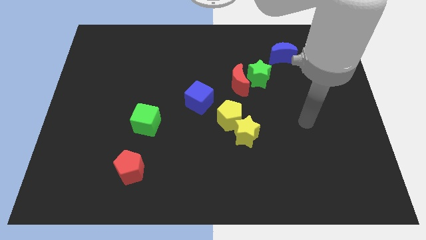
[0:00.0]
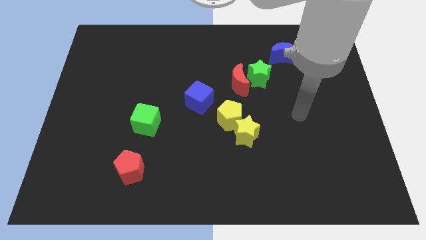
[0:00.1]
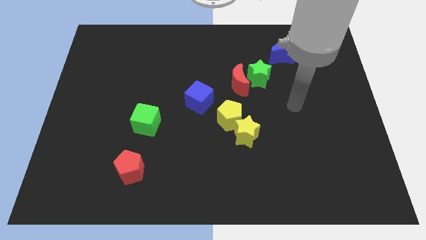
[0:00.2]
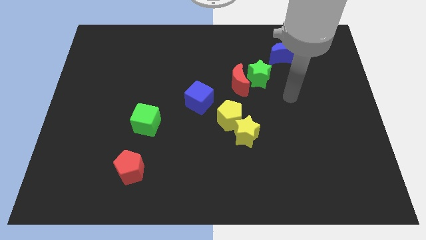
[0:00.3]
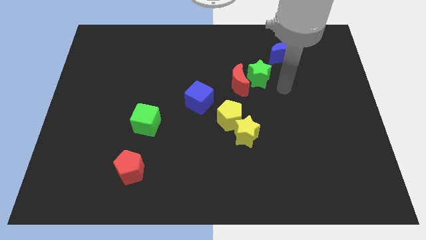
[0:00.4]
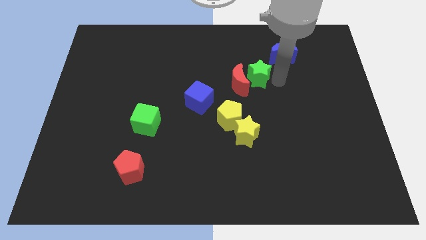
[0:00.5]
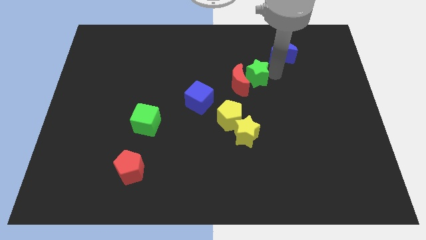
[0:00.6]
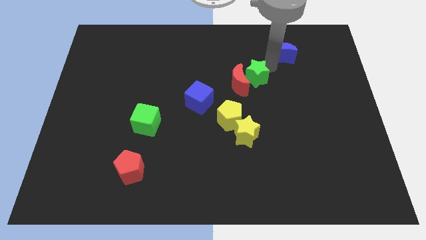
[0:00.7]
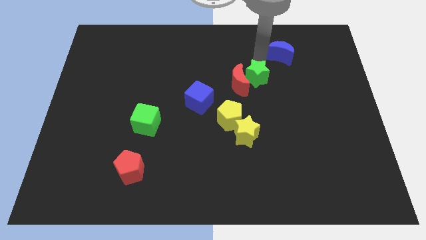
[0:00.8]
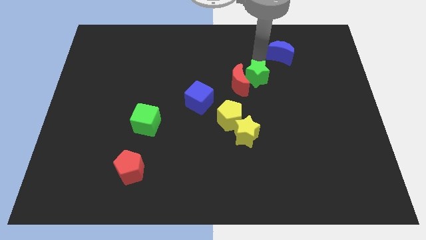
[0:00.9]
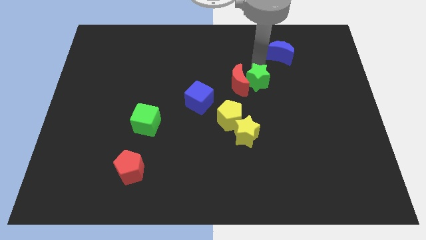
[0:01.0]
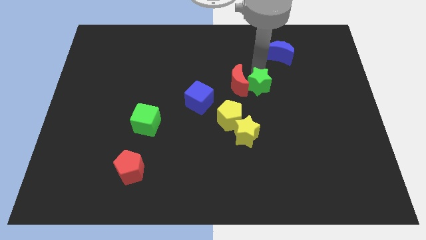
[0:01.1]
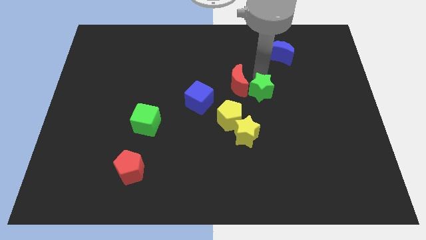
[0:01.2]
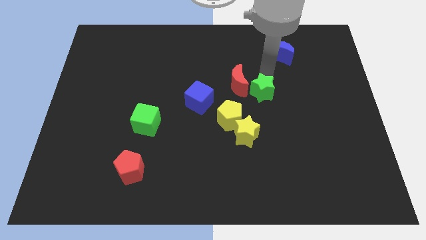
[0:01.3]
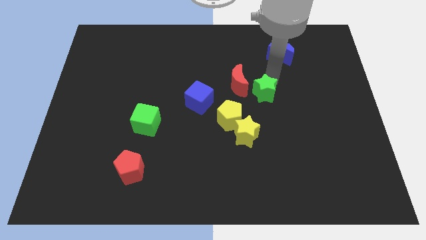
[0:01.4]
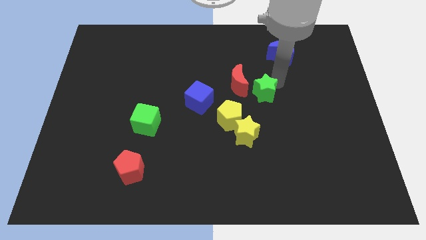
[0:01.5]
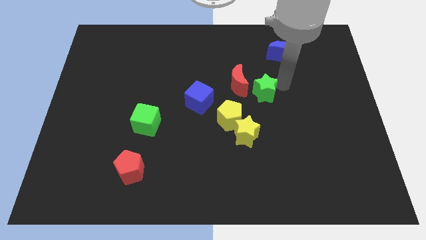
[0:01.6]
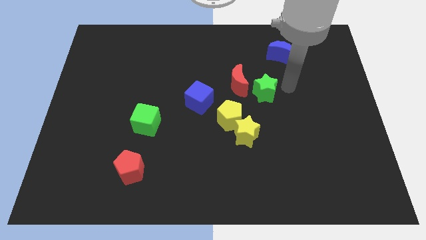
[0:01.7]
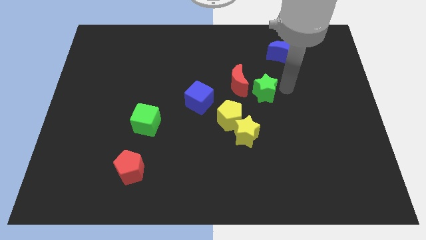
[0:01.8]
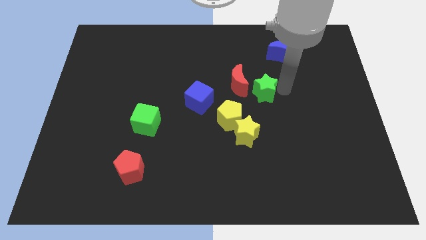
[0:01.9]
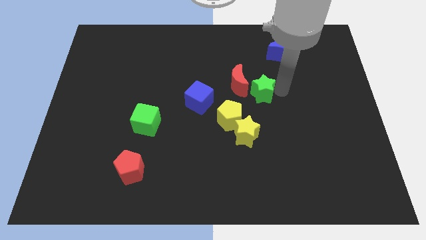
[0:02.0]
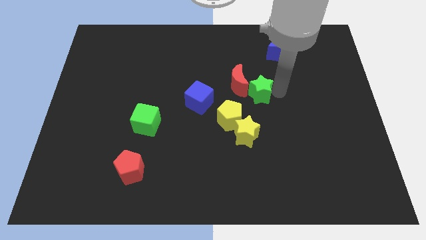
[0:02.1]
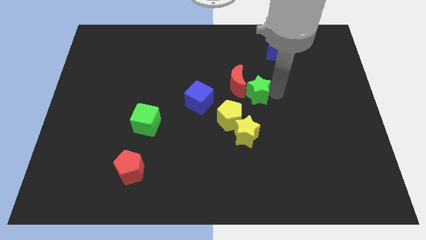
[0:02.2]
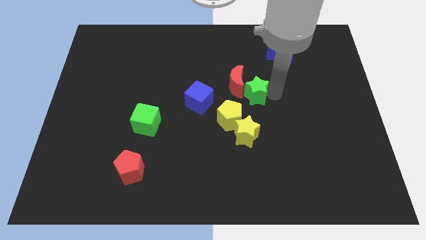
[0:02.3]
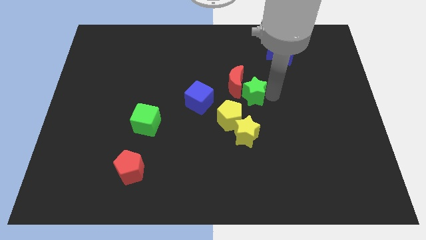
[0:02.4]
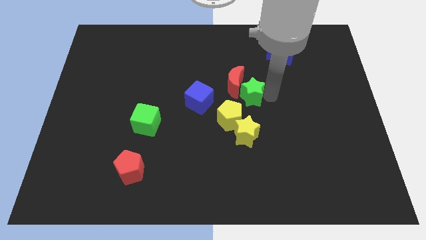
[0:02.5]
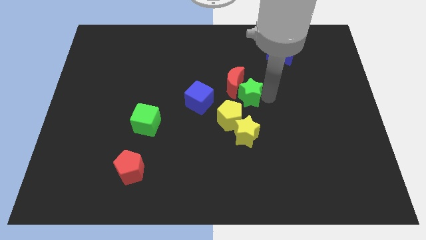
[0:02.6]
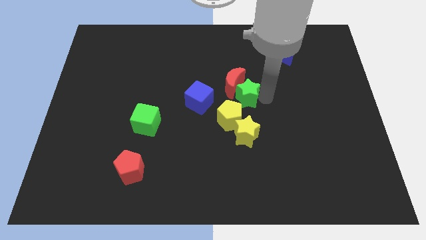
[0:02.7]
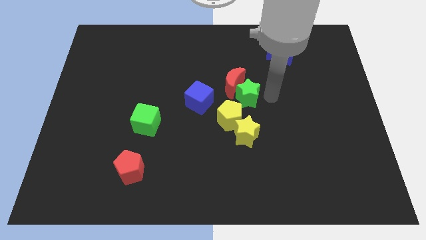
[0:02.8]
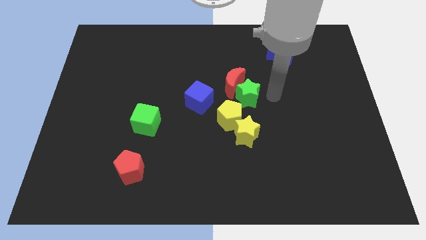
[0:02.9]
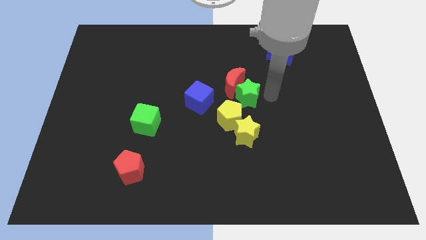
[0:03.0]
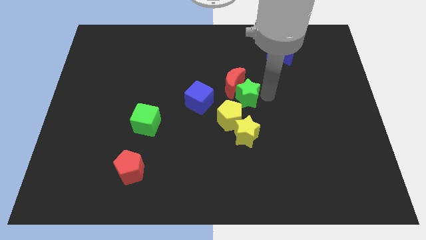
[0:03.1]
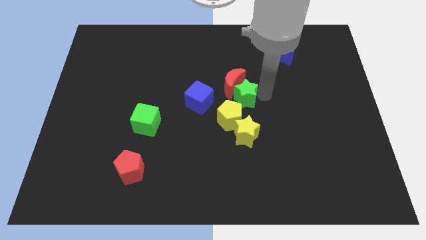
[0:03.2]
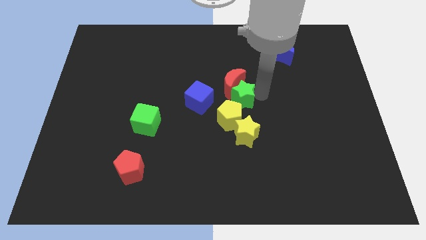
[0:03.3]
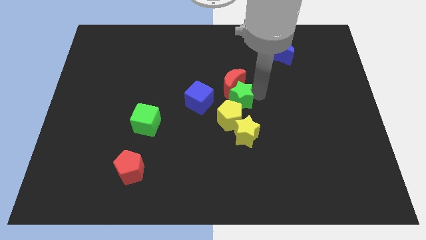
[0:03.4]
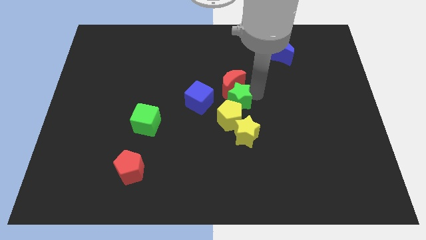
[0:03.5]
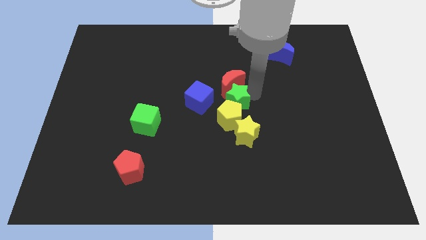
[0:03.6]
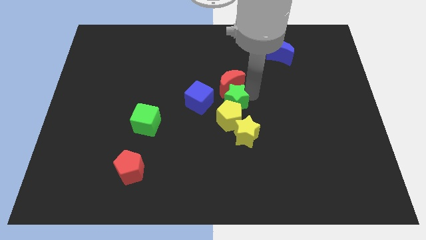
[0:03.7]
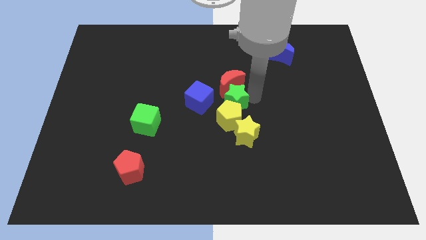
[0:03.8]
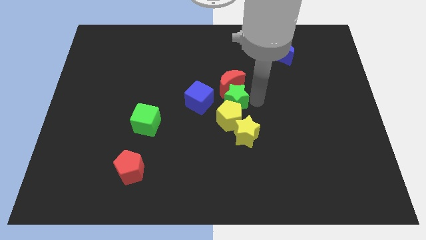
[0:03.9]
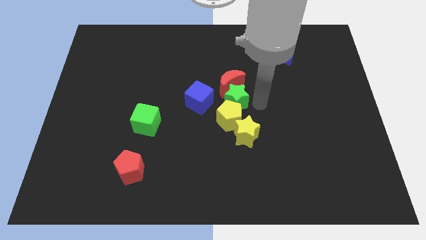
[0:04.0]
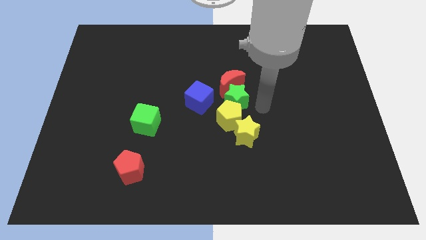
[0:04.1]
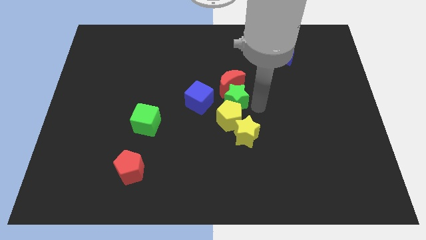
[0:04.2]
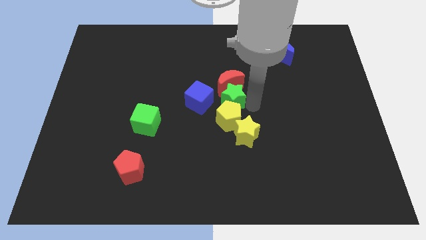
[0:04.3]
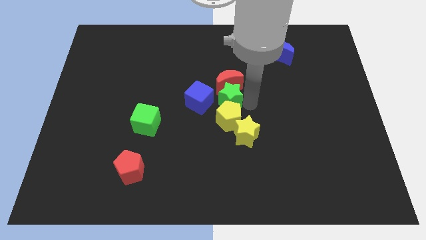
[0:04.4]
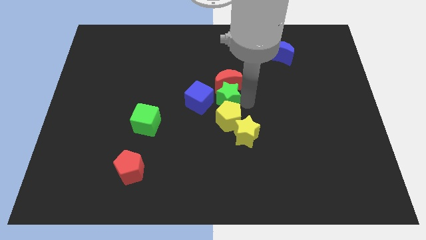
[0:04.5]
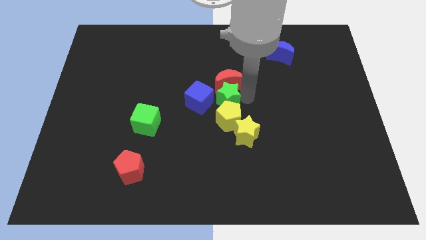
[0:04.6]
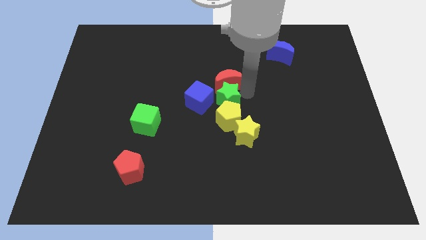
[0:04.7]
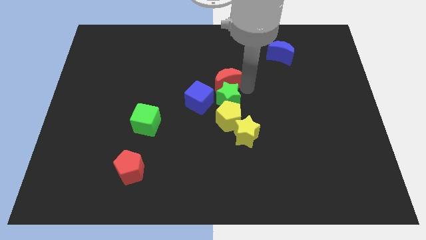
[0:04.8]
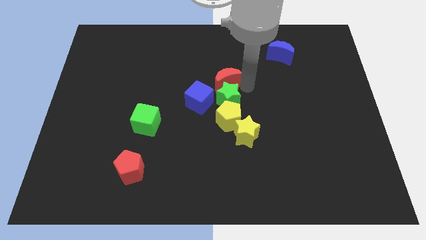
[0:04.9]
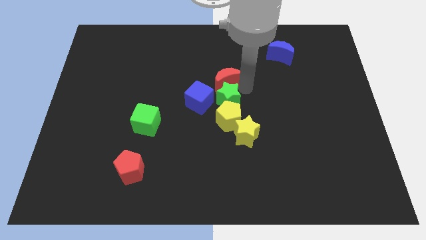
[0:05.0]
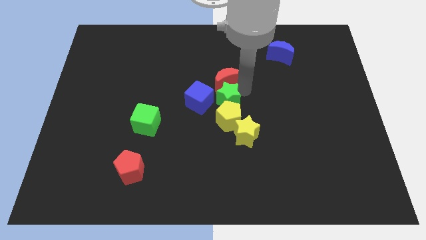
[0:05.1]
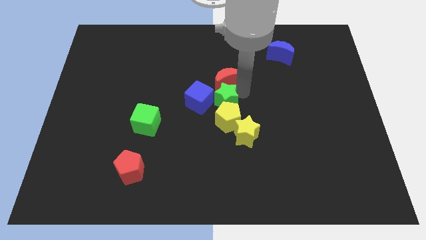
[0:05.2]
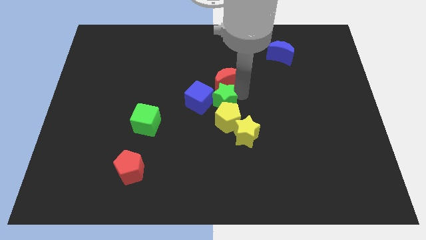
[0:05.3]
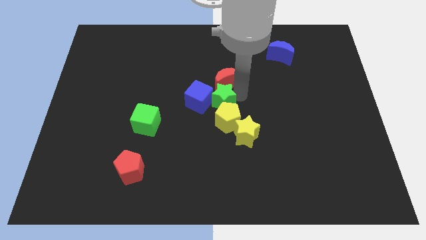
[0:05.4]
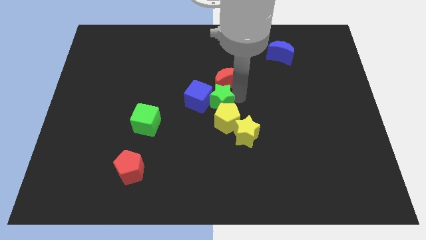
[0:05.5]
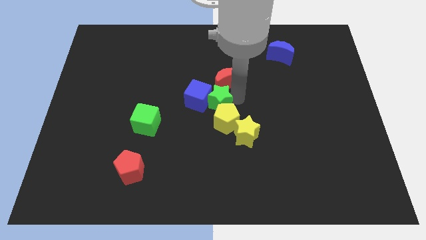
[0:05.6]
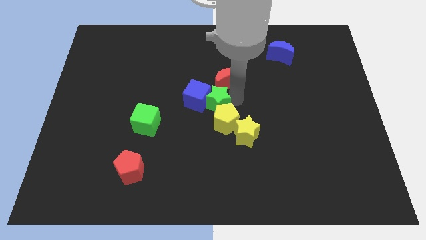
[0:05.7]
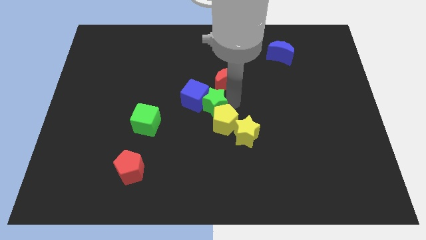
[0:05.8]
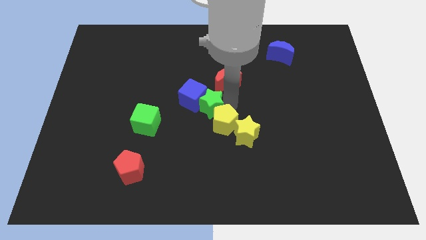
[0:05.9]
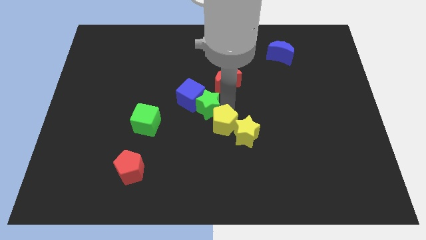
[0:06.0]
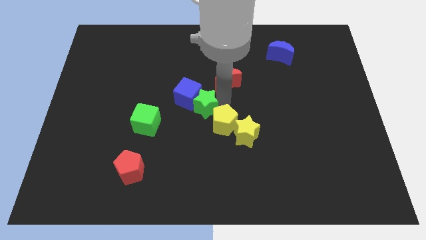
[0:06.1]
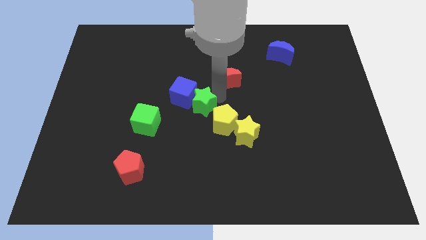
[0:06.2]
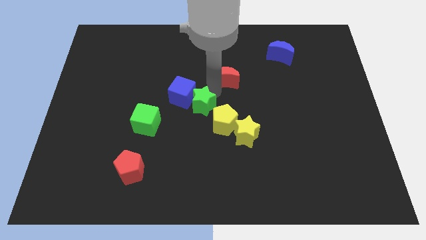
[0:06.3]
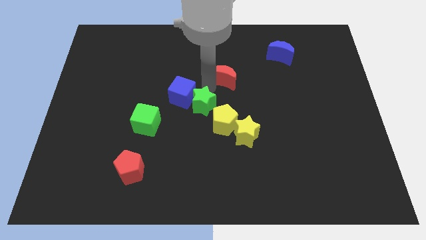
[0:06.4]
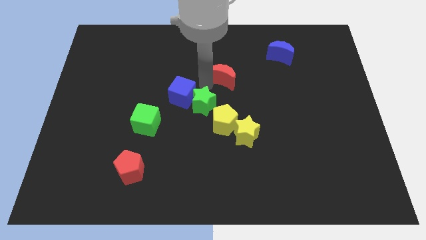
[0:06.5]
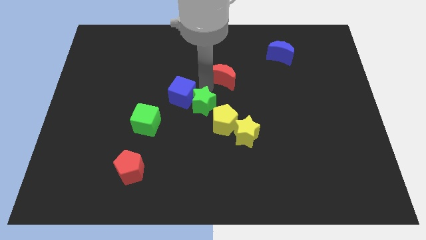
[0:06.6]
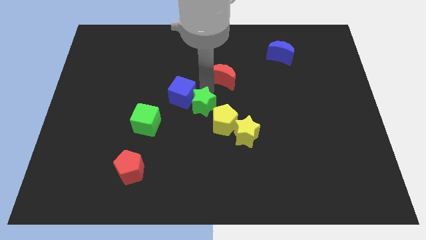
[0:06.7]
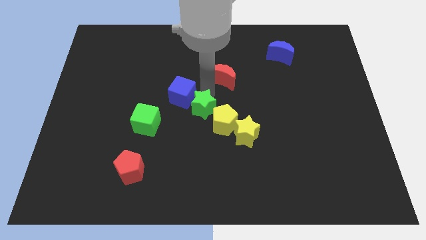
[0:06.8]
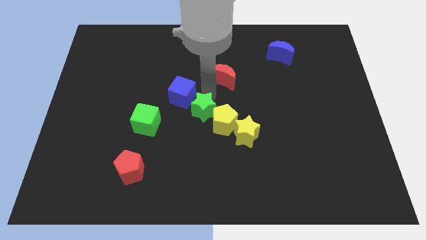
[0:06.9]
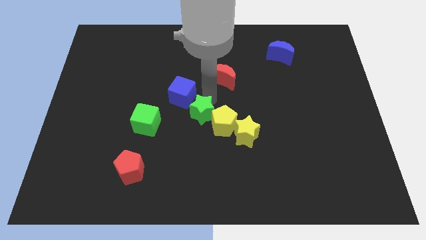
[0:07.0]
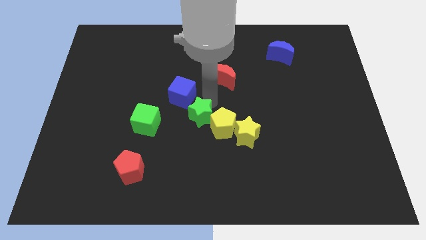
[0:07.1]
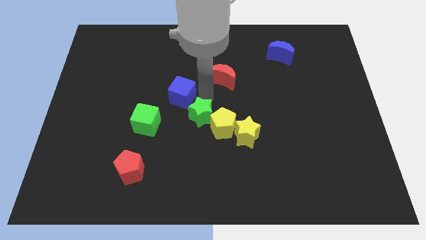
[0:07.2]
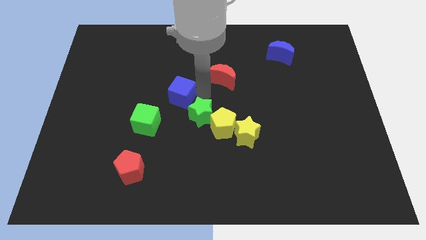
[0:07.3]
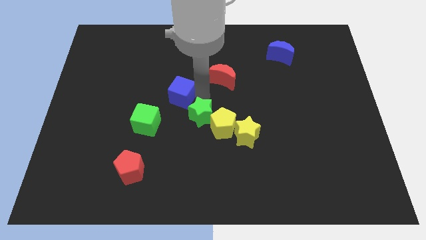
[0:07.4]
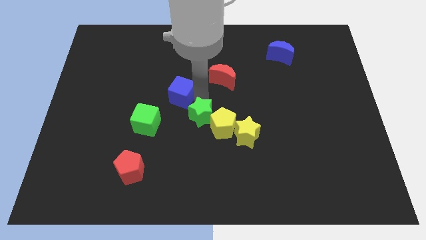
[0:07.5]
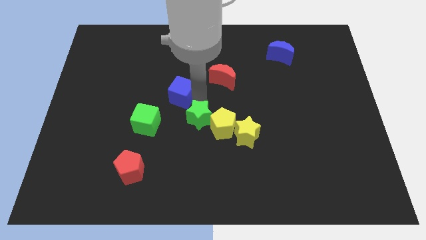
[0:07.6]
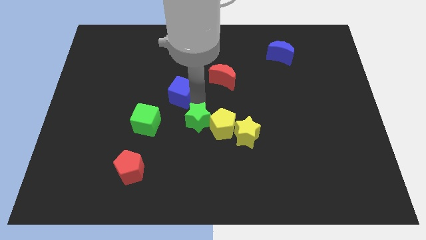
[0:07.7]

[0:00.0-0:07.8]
put the green star to the bottom left of the yellow pentagon
